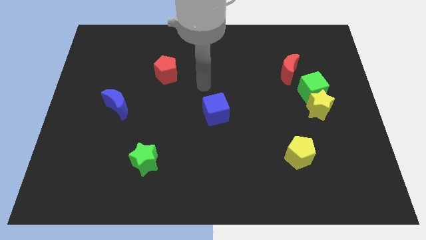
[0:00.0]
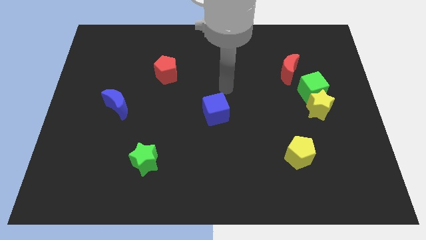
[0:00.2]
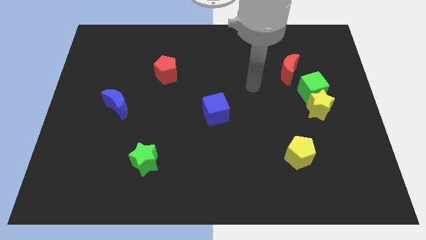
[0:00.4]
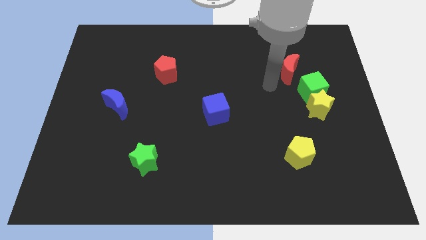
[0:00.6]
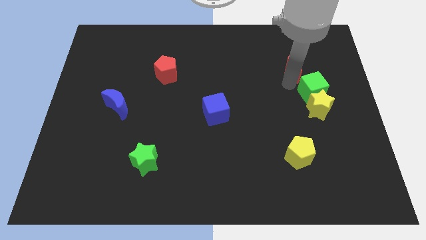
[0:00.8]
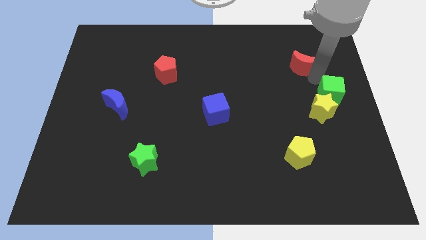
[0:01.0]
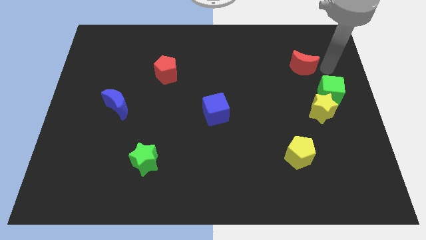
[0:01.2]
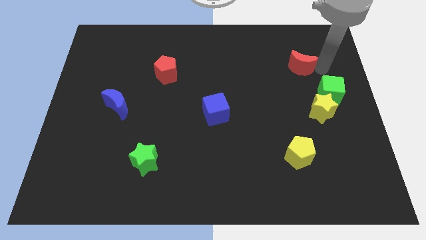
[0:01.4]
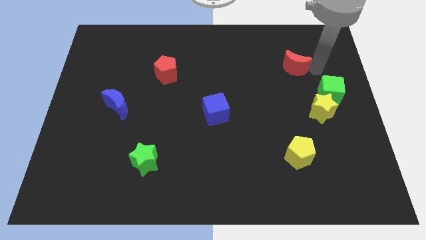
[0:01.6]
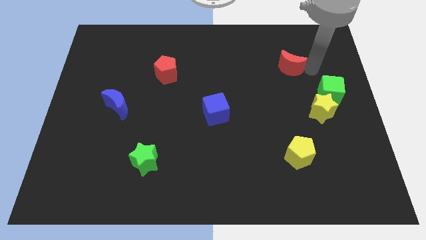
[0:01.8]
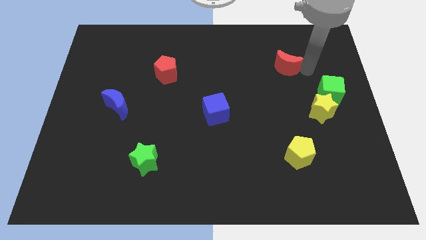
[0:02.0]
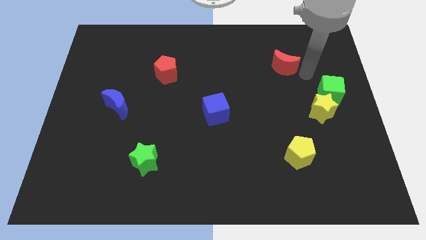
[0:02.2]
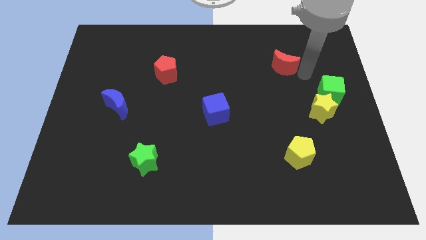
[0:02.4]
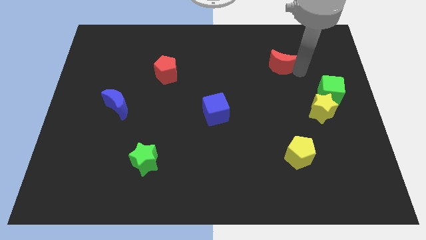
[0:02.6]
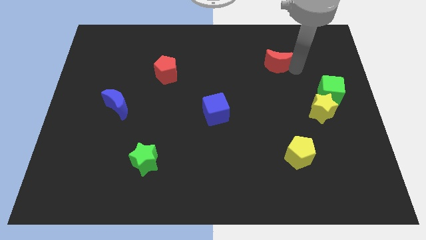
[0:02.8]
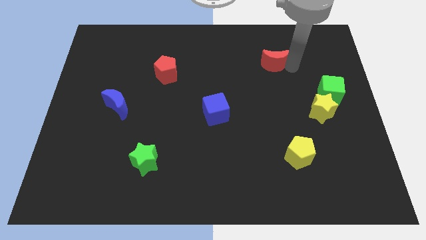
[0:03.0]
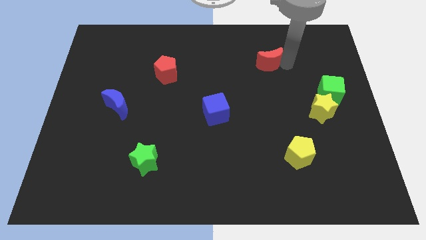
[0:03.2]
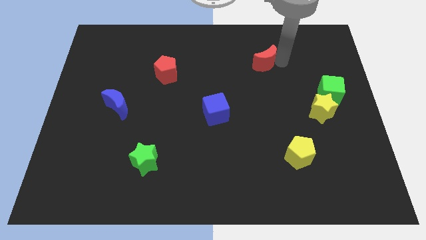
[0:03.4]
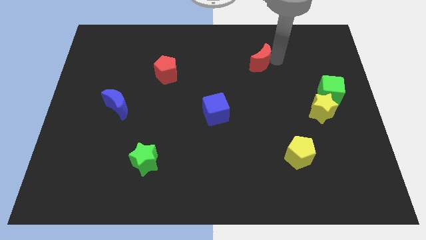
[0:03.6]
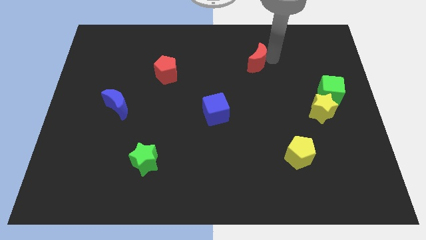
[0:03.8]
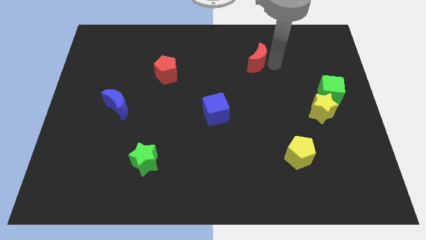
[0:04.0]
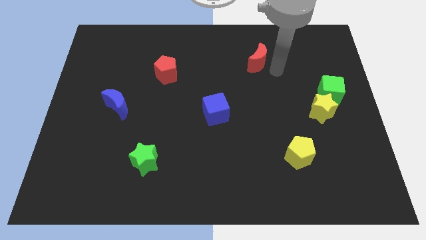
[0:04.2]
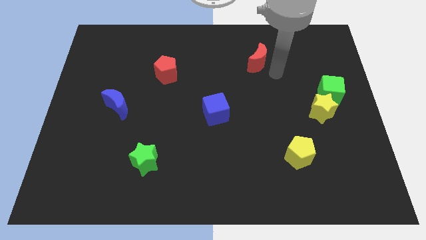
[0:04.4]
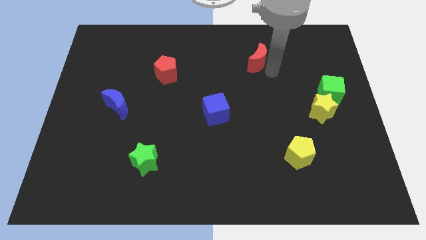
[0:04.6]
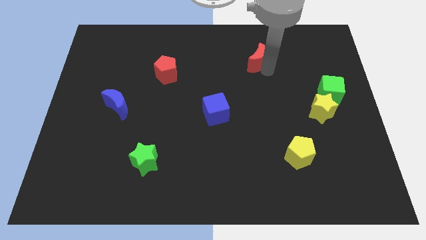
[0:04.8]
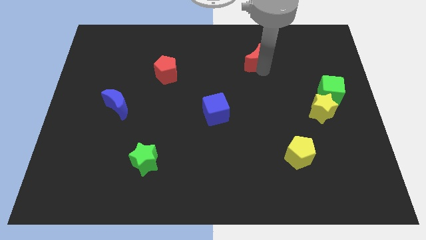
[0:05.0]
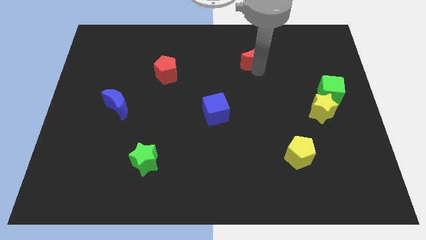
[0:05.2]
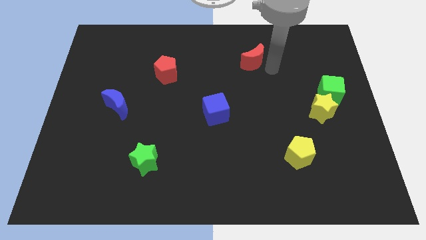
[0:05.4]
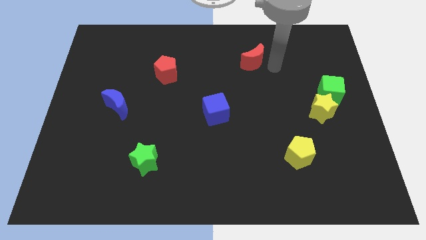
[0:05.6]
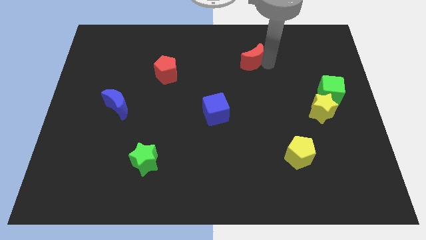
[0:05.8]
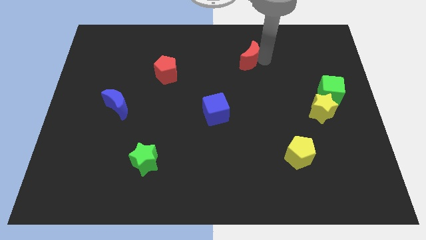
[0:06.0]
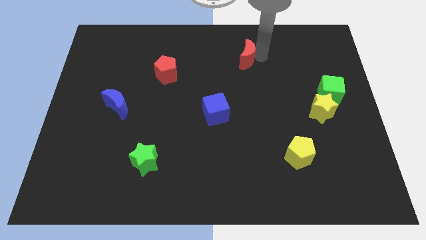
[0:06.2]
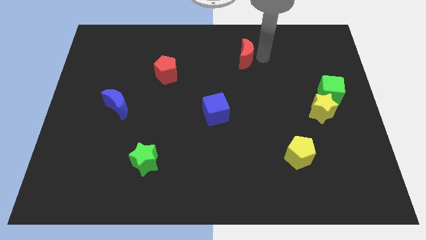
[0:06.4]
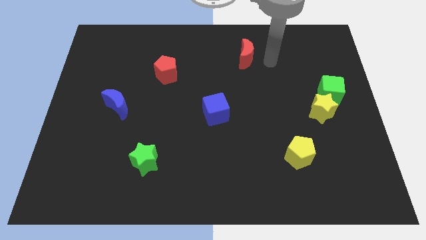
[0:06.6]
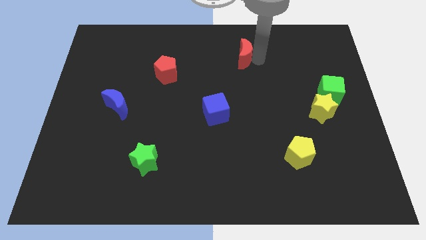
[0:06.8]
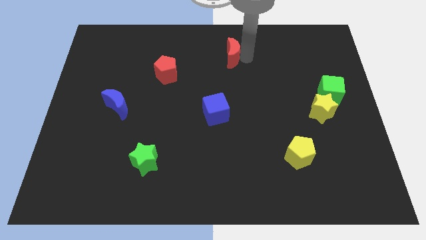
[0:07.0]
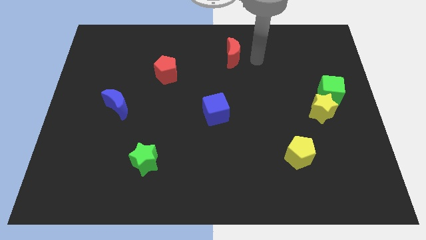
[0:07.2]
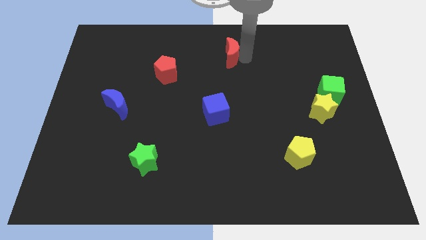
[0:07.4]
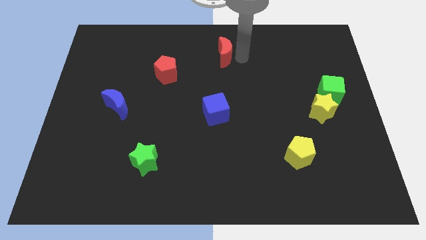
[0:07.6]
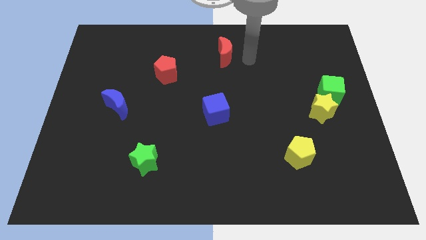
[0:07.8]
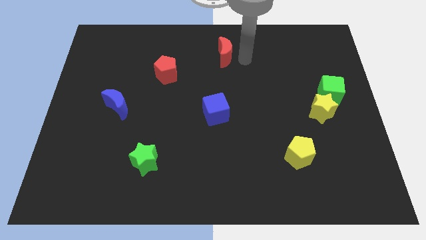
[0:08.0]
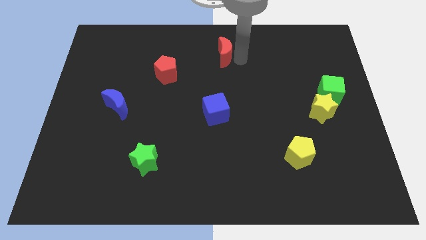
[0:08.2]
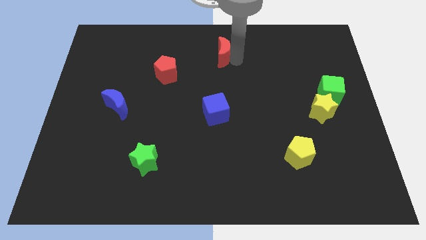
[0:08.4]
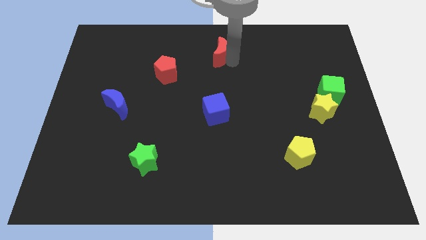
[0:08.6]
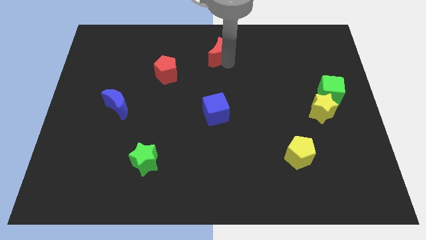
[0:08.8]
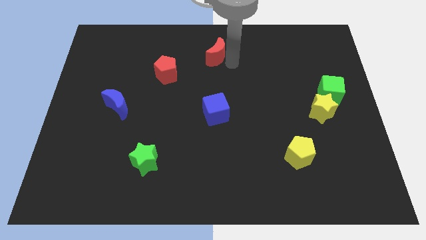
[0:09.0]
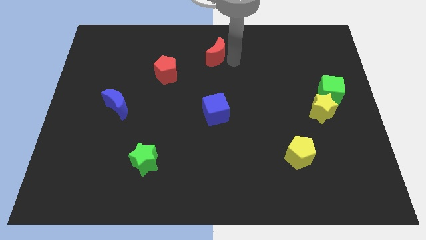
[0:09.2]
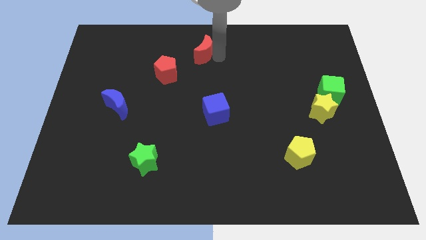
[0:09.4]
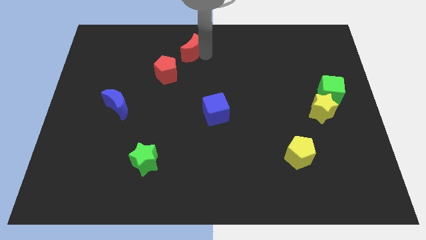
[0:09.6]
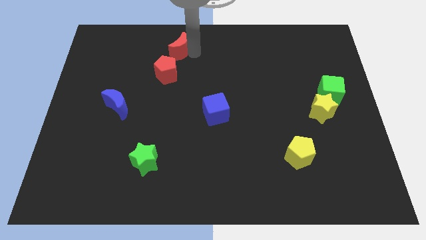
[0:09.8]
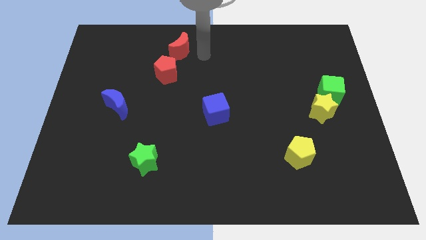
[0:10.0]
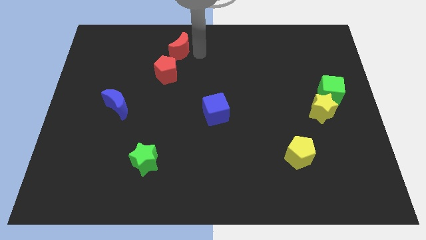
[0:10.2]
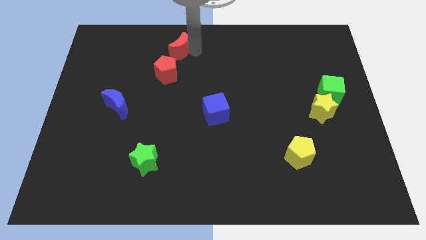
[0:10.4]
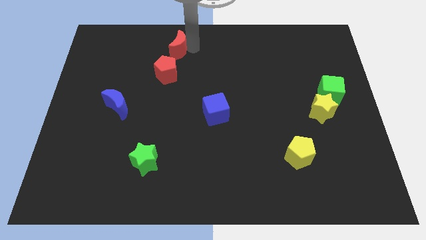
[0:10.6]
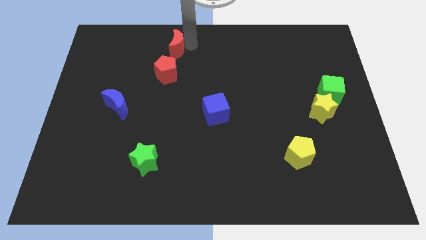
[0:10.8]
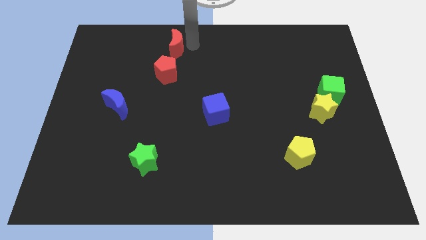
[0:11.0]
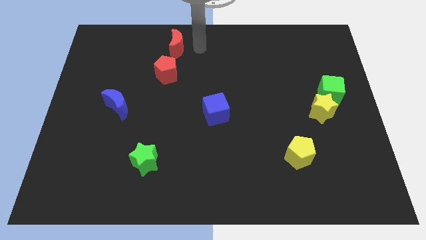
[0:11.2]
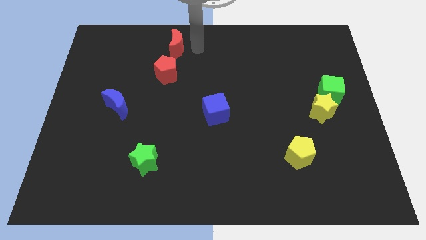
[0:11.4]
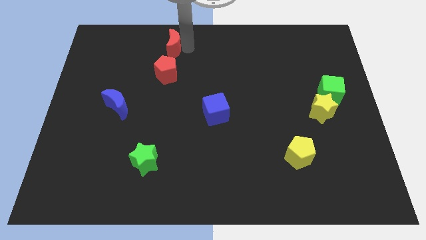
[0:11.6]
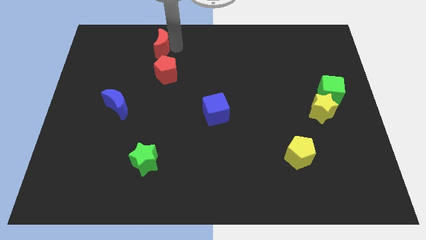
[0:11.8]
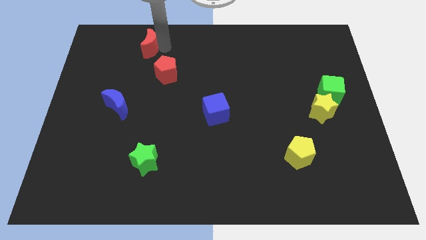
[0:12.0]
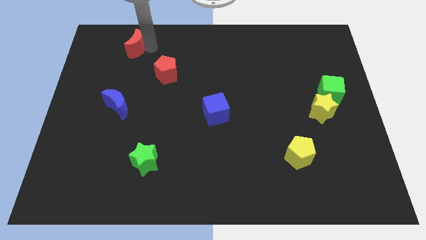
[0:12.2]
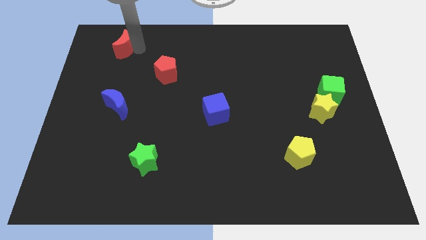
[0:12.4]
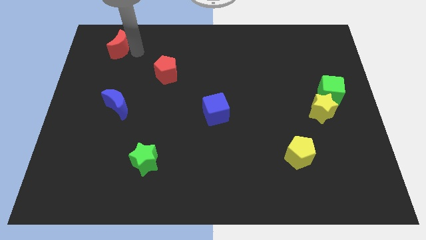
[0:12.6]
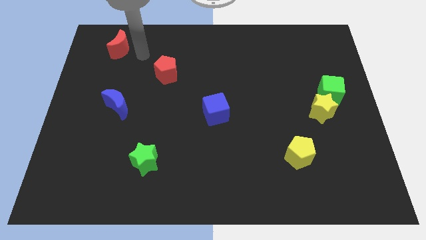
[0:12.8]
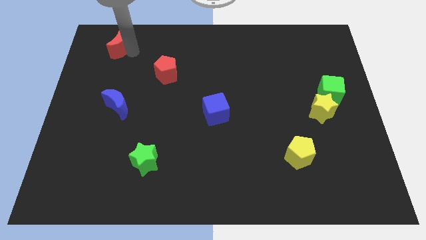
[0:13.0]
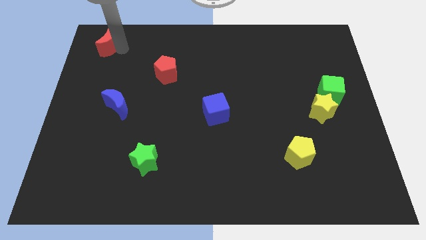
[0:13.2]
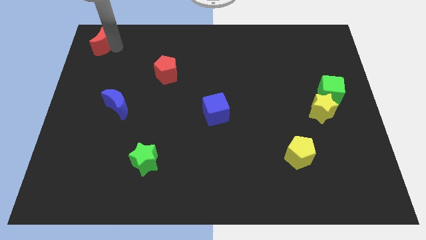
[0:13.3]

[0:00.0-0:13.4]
put the red moon to the top left corner

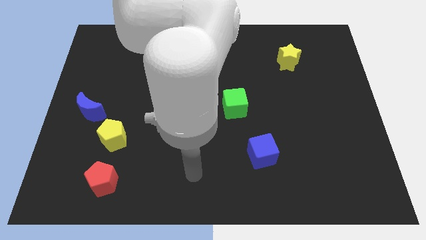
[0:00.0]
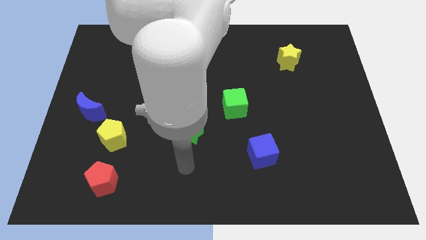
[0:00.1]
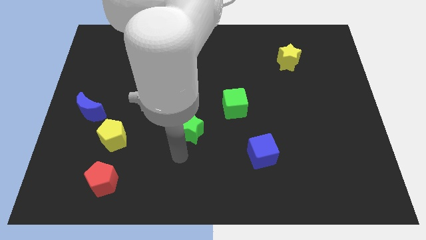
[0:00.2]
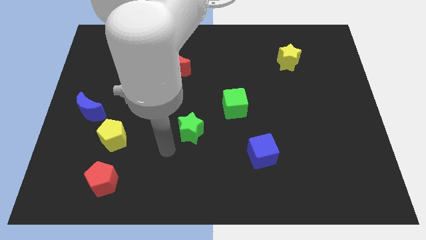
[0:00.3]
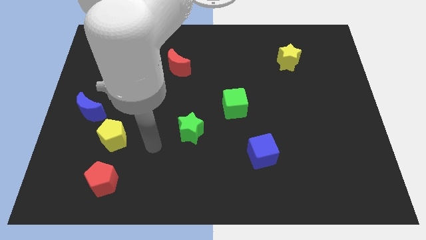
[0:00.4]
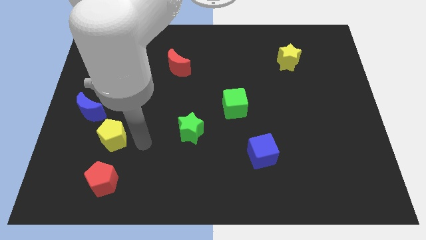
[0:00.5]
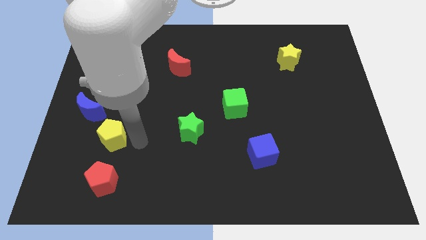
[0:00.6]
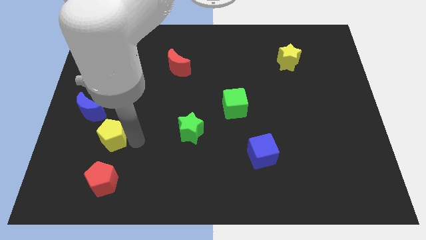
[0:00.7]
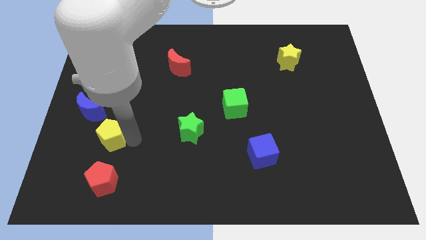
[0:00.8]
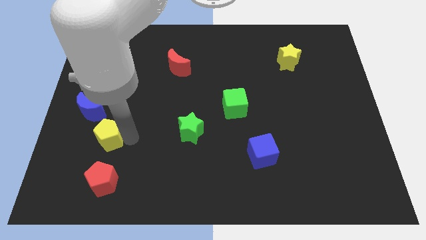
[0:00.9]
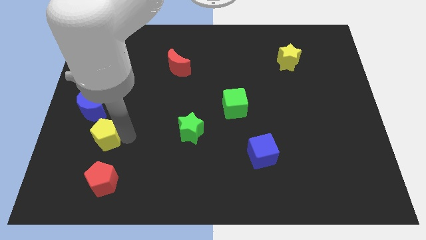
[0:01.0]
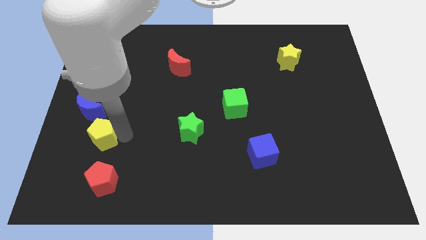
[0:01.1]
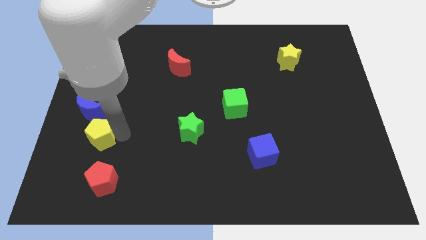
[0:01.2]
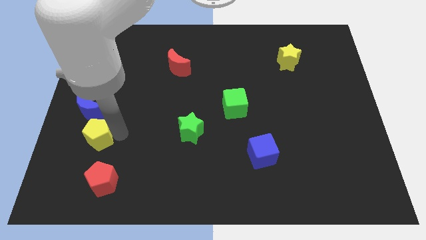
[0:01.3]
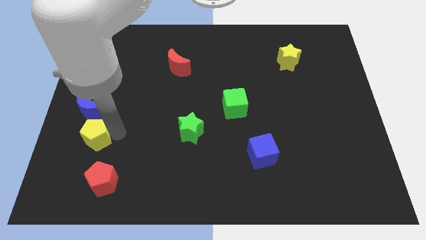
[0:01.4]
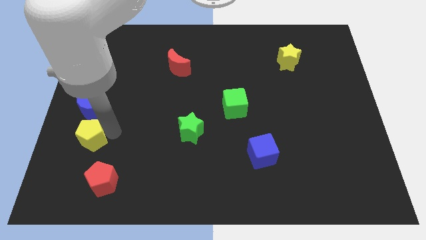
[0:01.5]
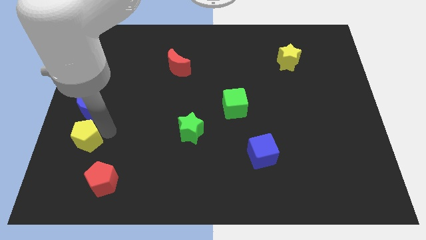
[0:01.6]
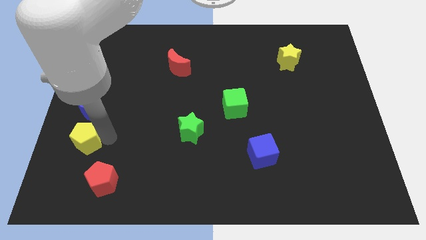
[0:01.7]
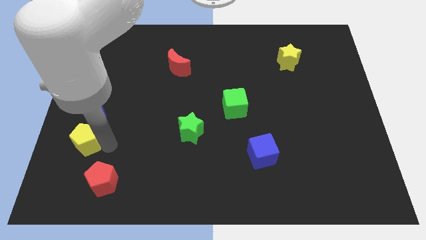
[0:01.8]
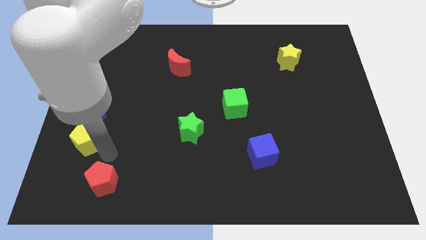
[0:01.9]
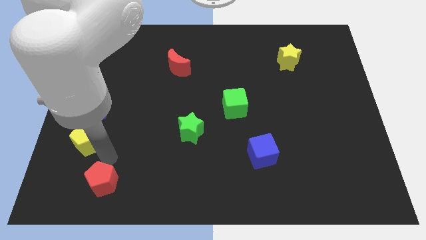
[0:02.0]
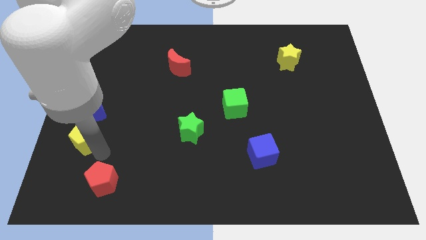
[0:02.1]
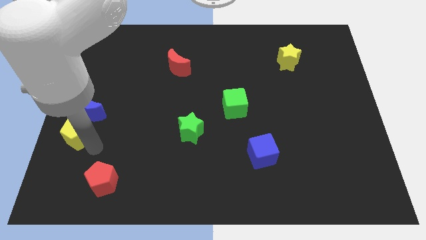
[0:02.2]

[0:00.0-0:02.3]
move the yellow pentagon to the center left
